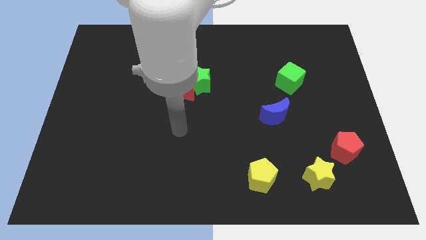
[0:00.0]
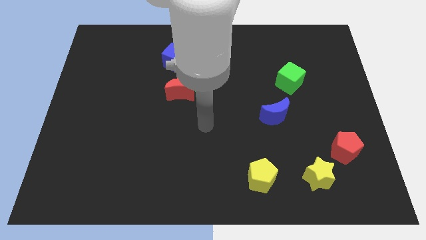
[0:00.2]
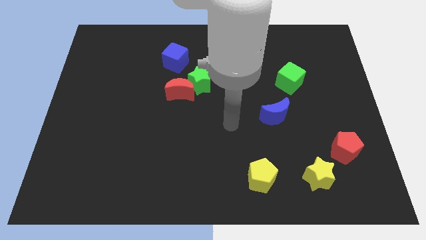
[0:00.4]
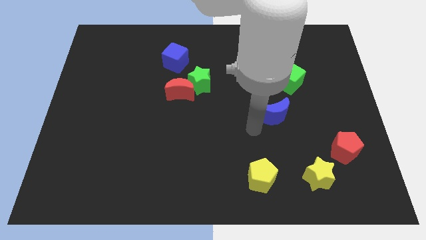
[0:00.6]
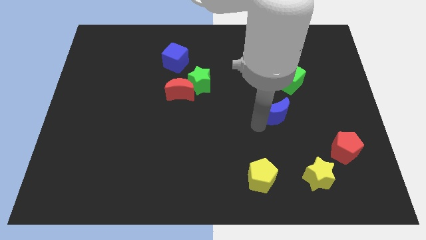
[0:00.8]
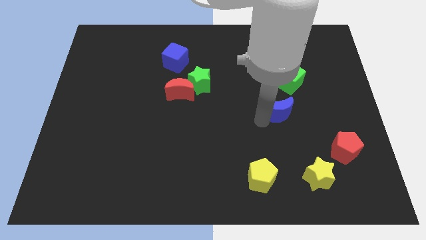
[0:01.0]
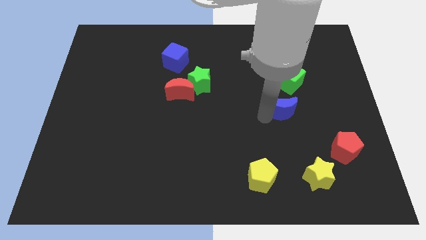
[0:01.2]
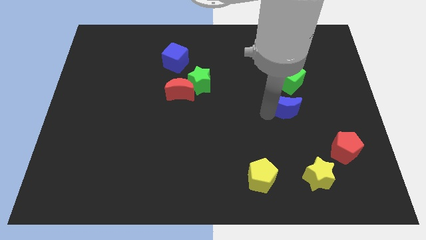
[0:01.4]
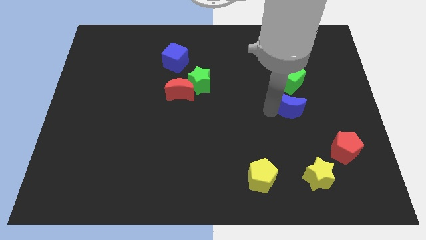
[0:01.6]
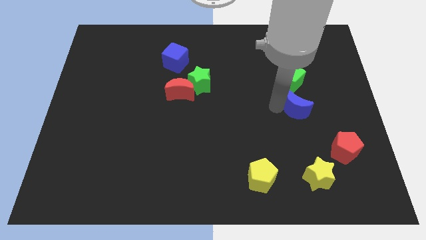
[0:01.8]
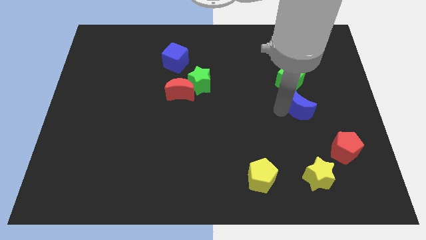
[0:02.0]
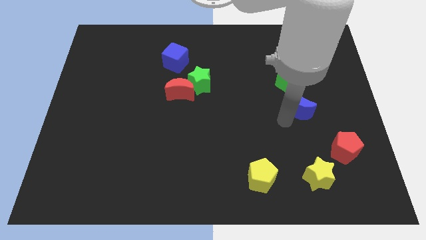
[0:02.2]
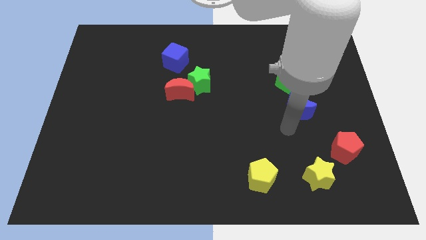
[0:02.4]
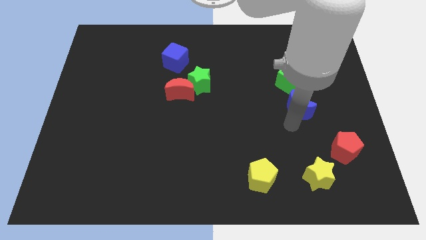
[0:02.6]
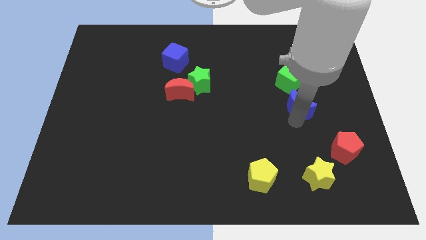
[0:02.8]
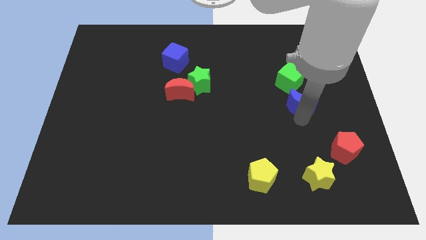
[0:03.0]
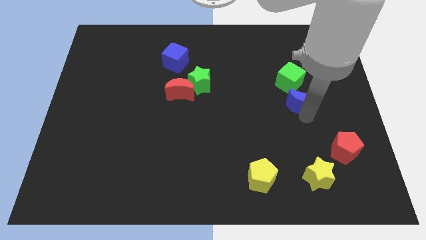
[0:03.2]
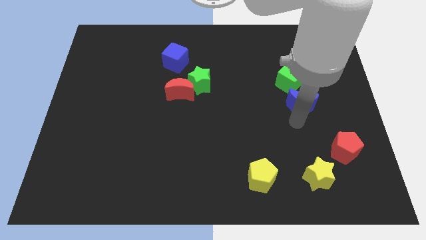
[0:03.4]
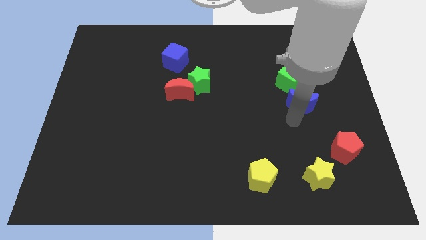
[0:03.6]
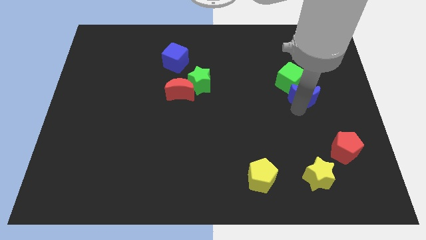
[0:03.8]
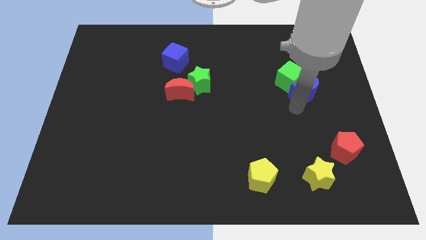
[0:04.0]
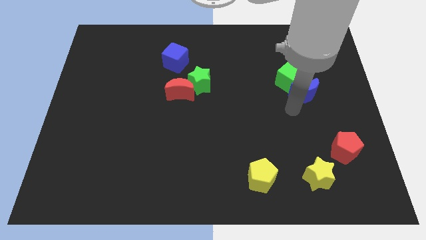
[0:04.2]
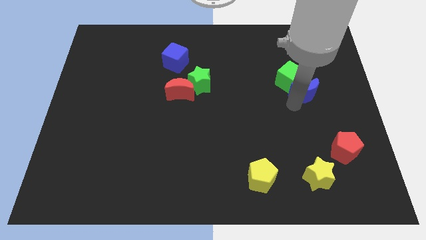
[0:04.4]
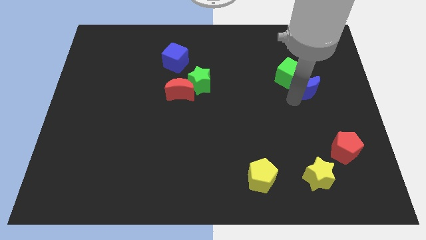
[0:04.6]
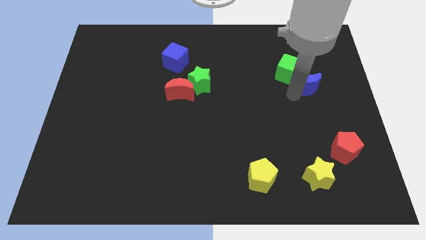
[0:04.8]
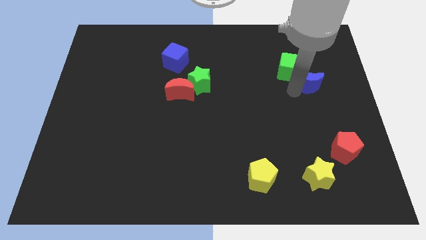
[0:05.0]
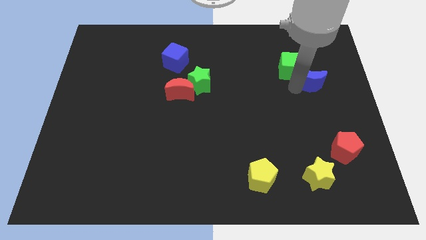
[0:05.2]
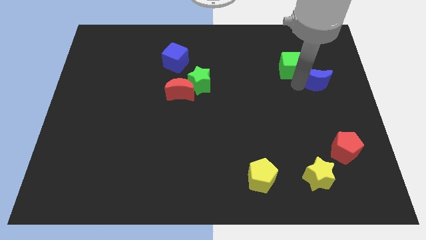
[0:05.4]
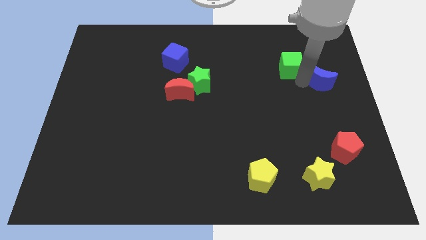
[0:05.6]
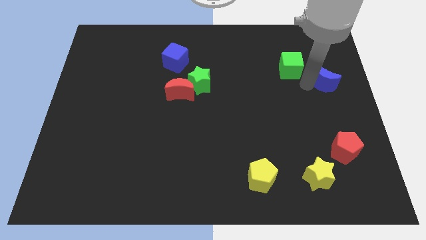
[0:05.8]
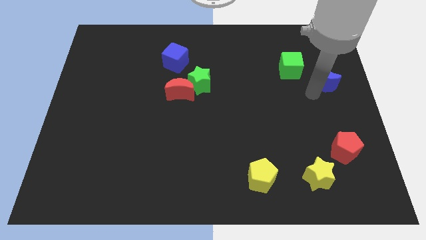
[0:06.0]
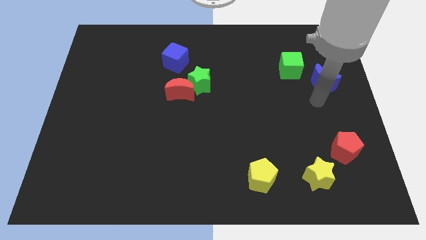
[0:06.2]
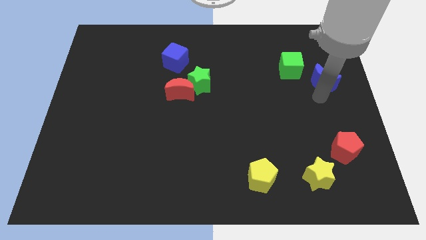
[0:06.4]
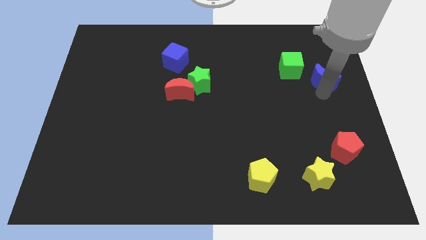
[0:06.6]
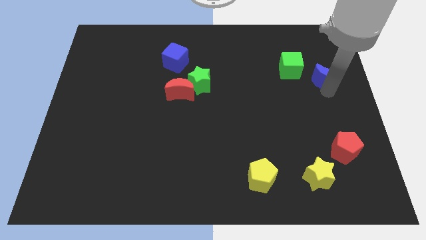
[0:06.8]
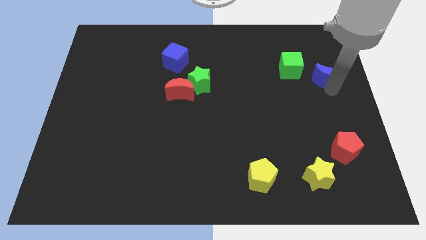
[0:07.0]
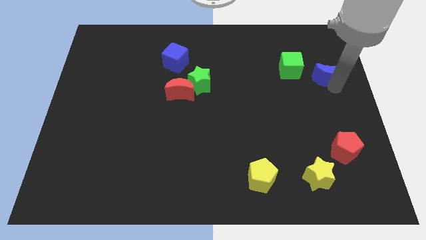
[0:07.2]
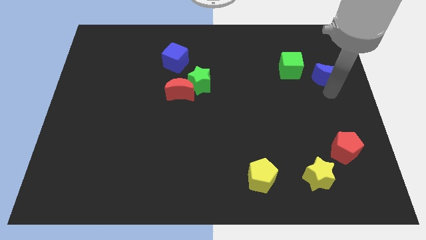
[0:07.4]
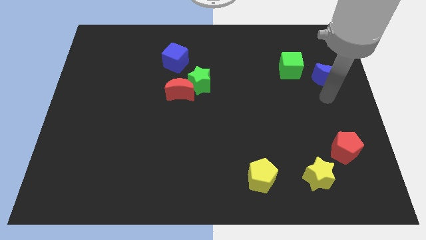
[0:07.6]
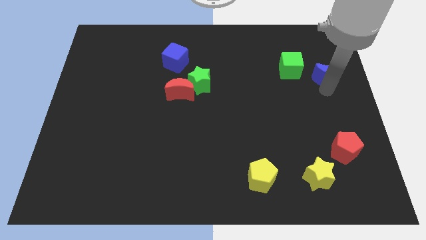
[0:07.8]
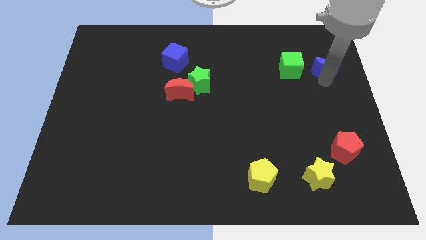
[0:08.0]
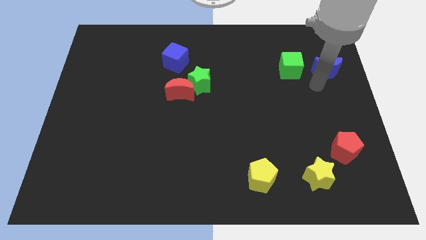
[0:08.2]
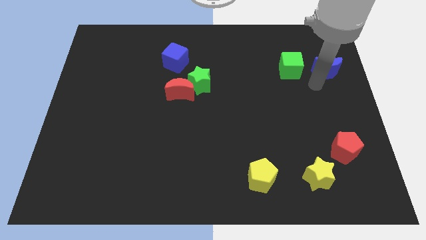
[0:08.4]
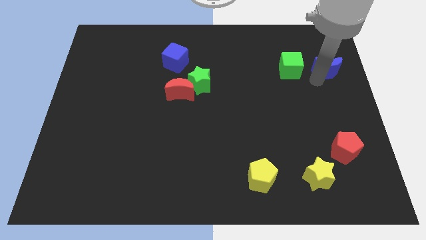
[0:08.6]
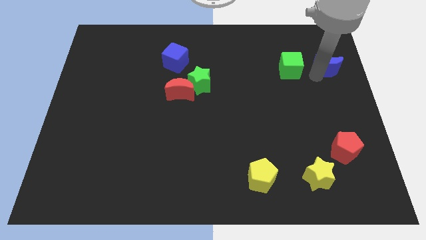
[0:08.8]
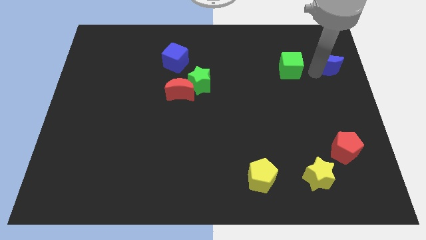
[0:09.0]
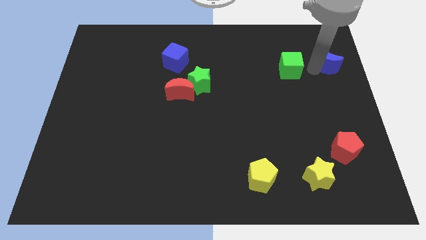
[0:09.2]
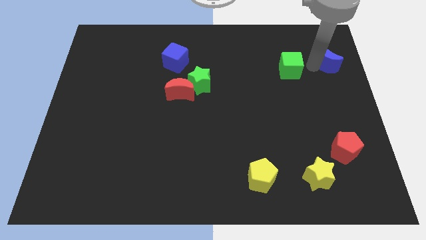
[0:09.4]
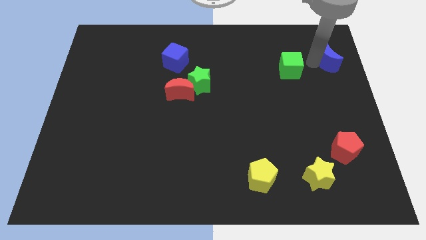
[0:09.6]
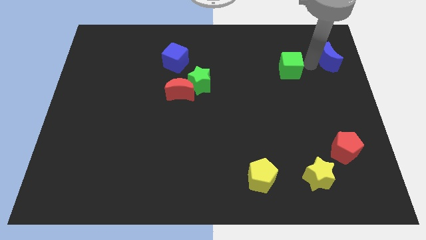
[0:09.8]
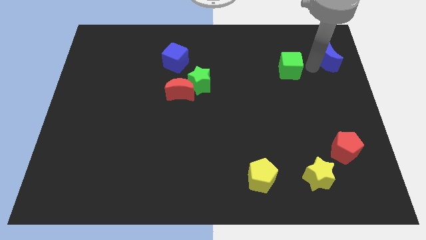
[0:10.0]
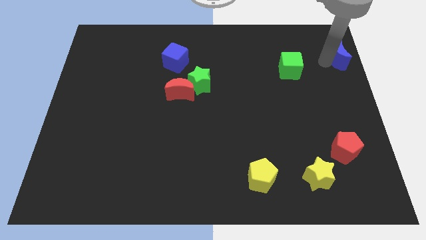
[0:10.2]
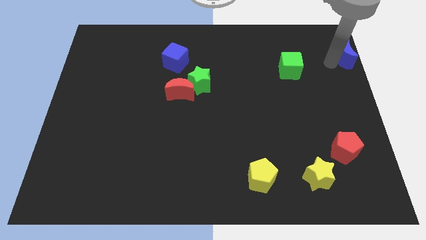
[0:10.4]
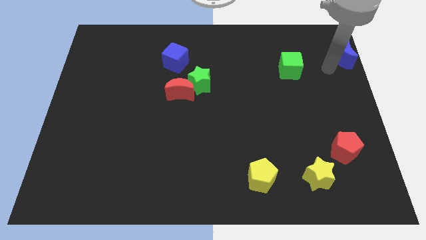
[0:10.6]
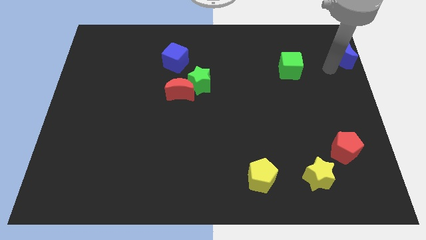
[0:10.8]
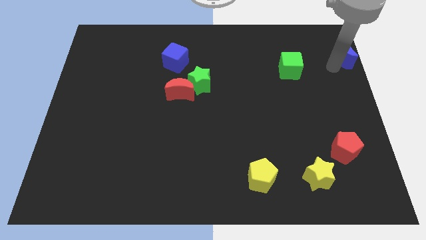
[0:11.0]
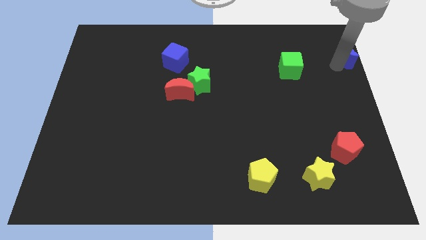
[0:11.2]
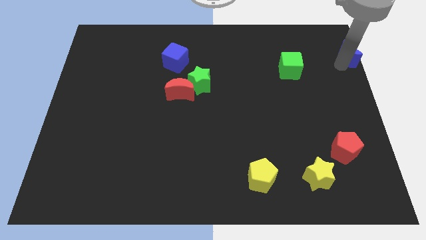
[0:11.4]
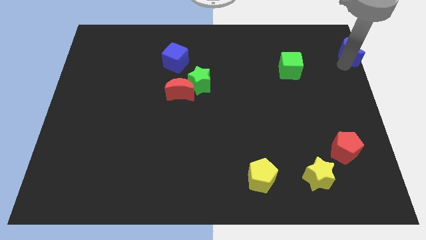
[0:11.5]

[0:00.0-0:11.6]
move the blue moon to the top right

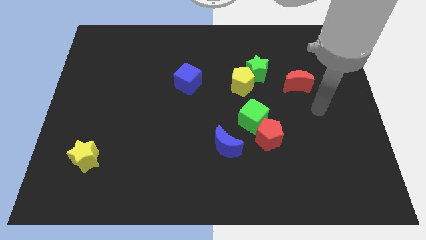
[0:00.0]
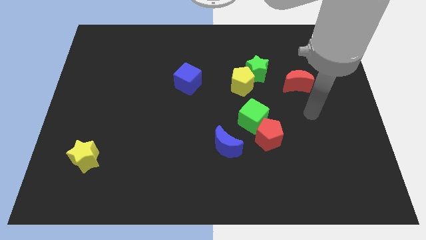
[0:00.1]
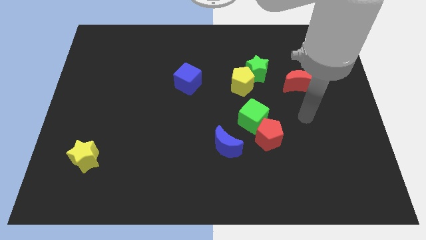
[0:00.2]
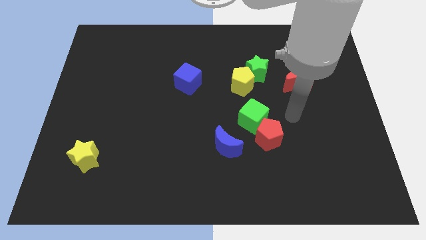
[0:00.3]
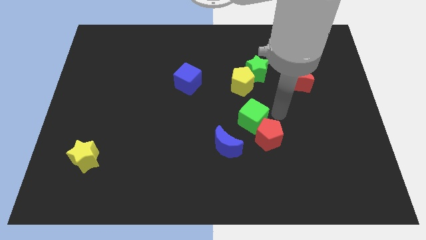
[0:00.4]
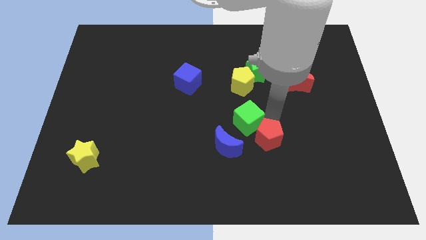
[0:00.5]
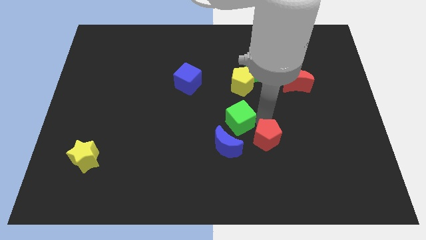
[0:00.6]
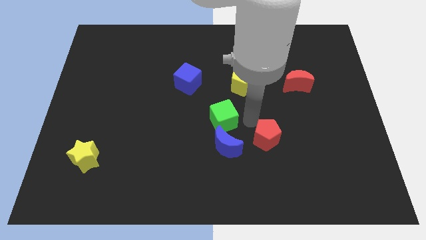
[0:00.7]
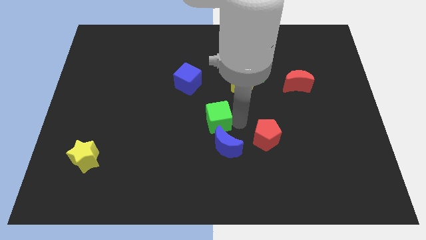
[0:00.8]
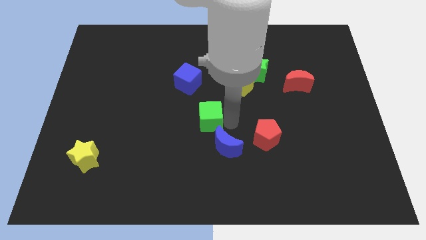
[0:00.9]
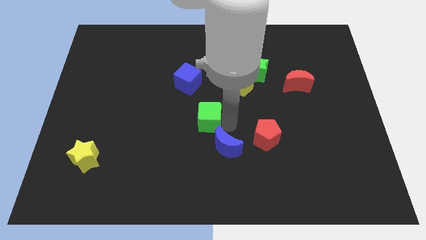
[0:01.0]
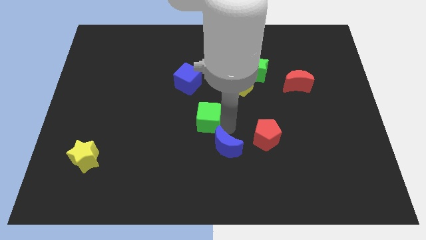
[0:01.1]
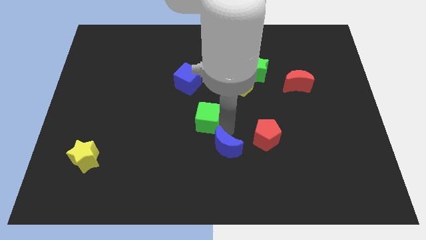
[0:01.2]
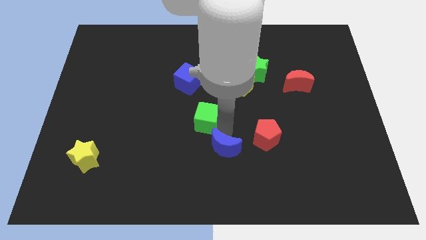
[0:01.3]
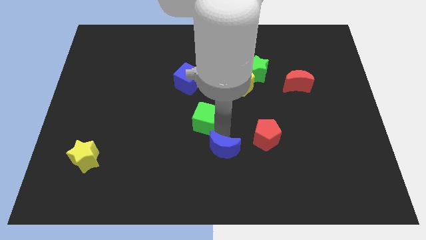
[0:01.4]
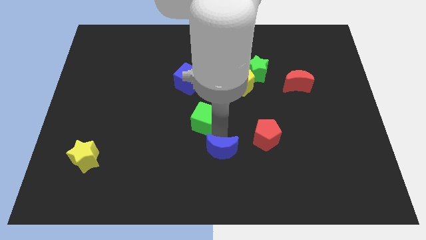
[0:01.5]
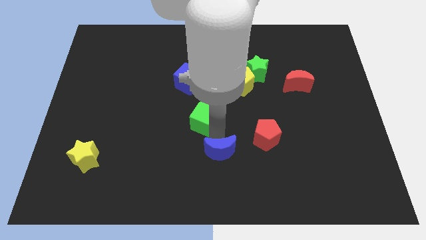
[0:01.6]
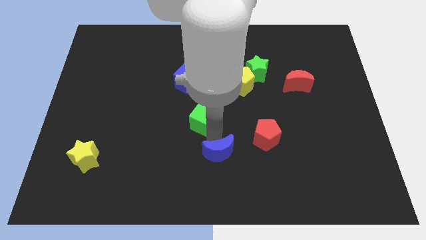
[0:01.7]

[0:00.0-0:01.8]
put the blue moon to the bottom
